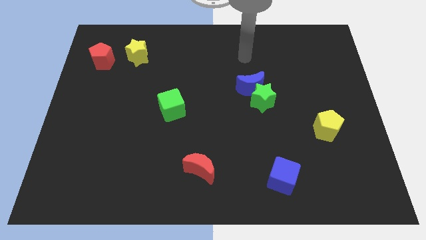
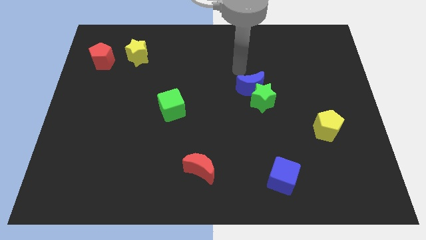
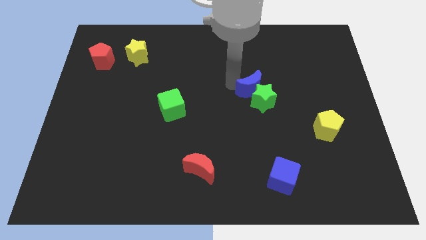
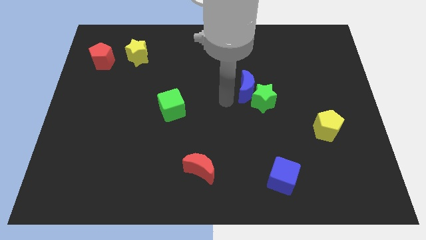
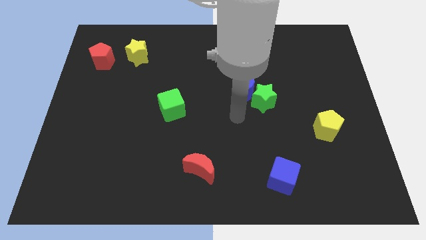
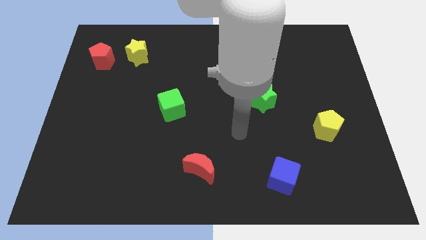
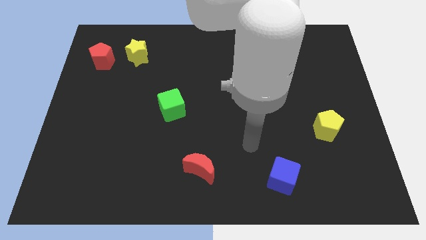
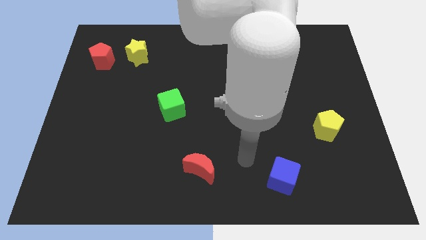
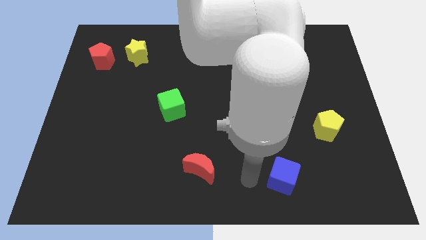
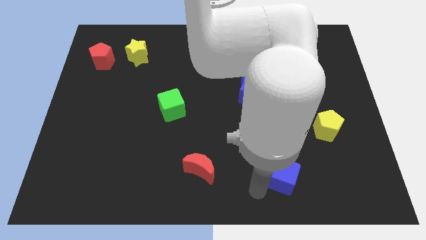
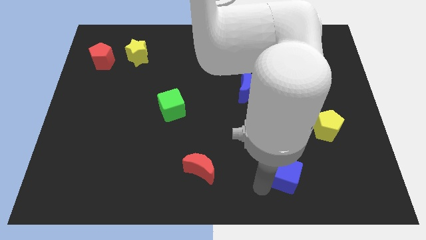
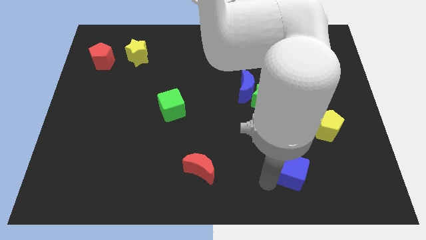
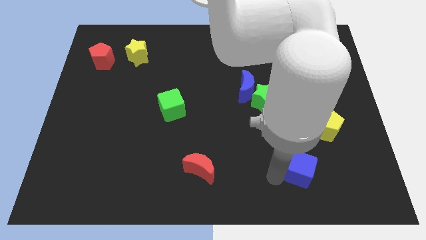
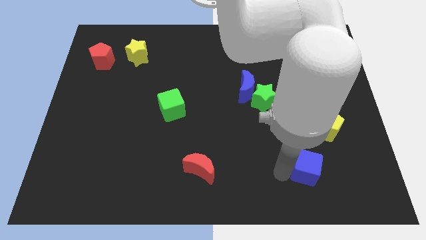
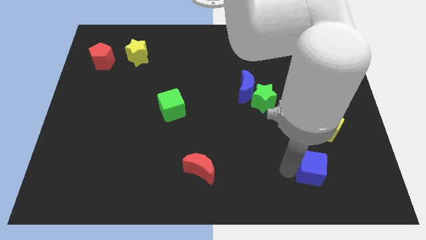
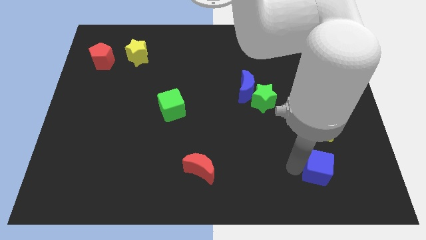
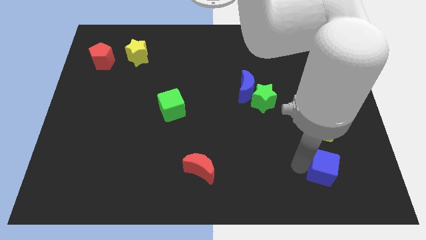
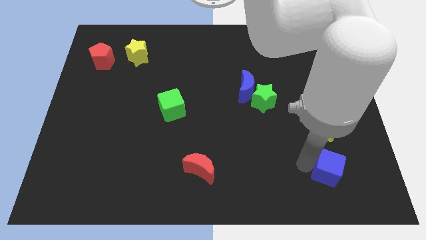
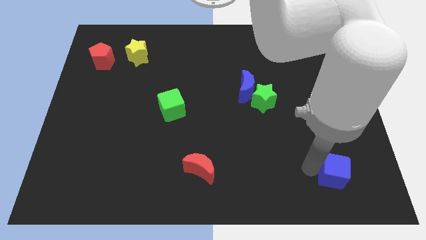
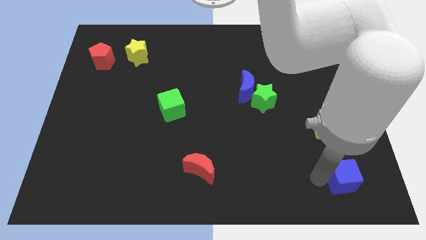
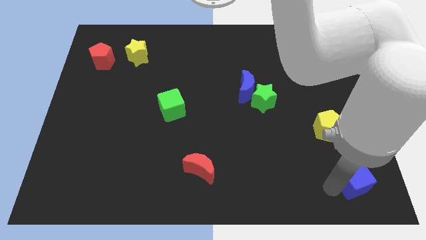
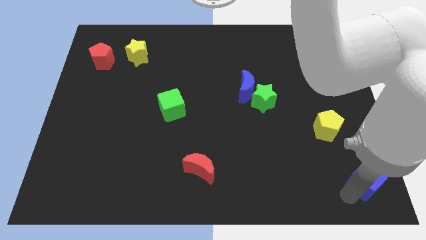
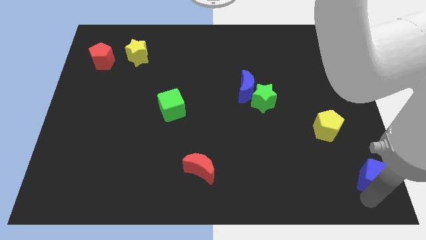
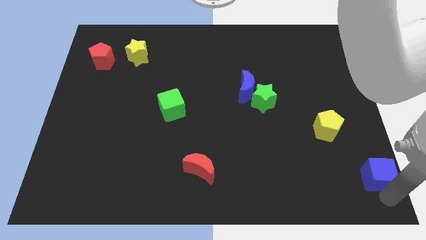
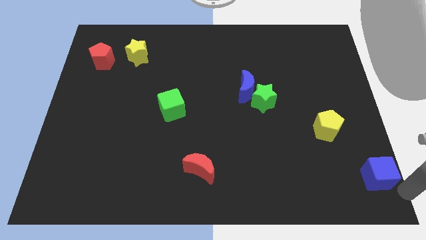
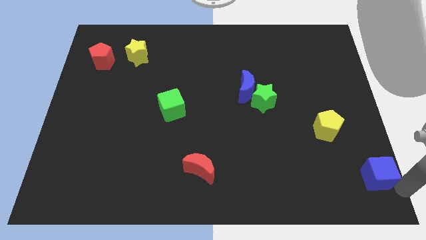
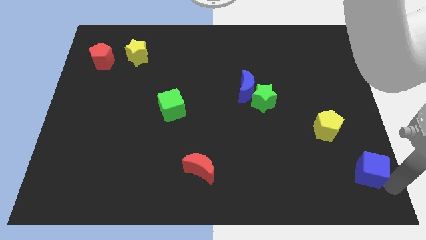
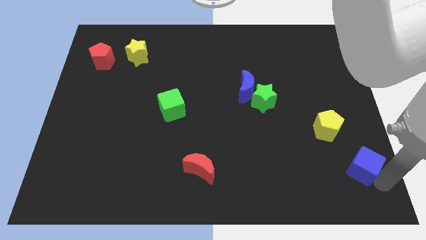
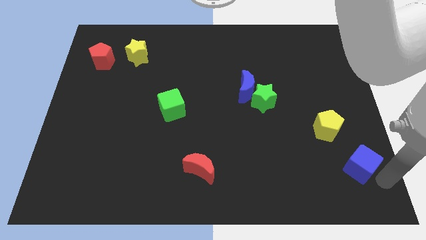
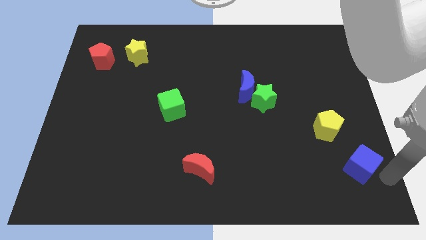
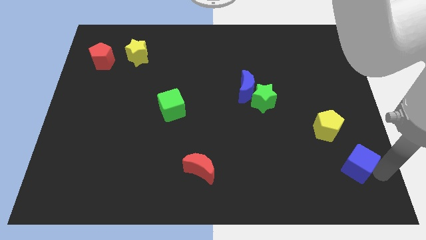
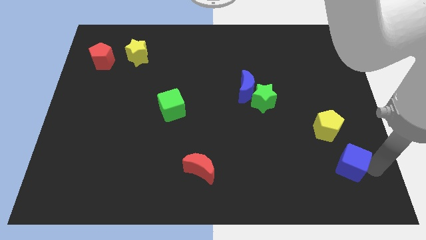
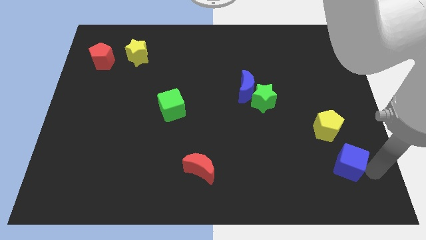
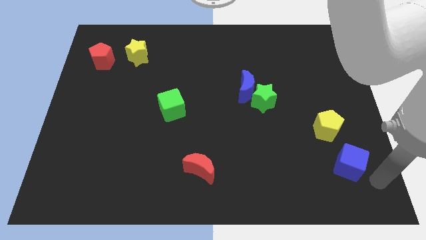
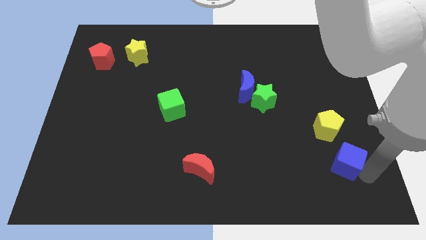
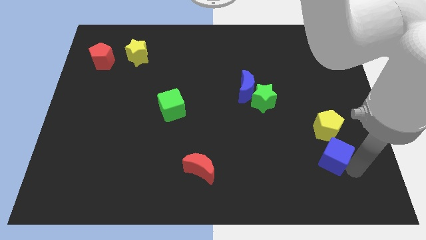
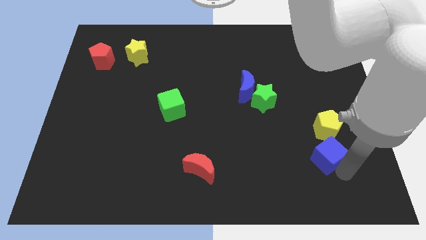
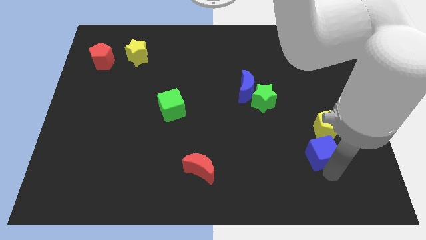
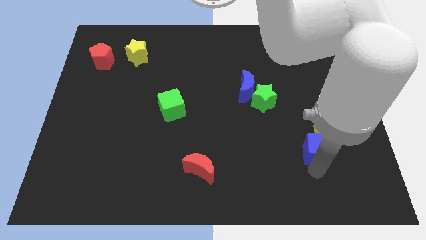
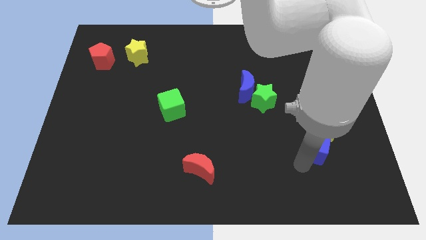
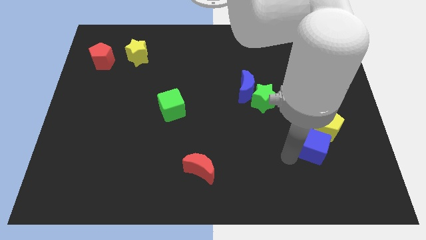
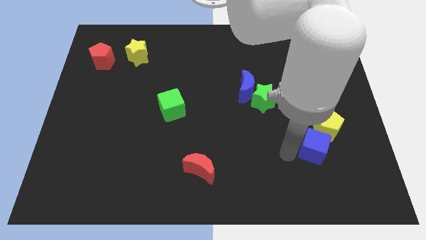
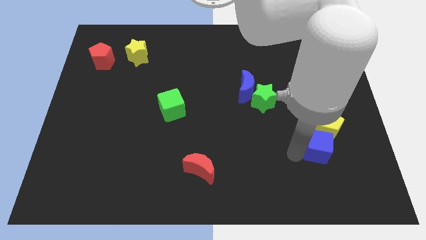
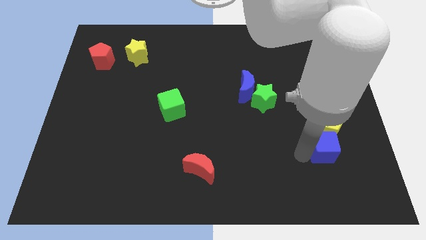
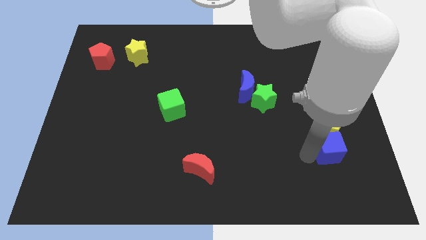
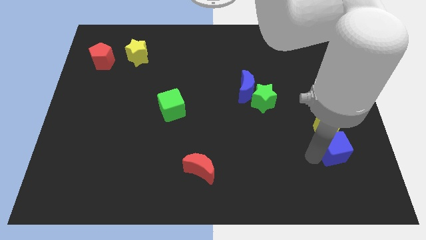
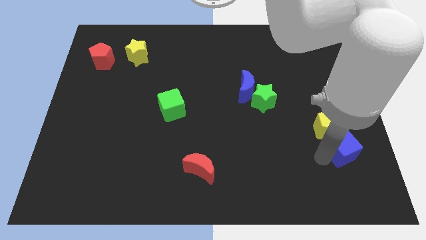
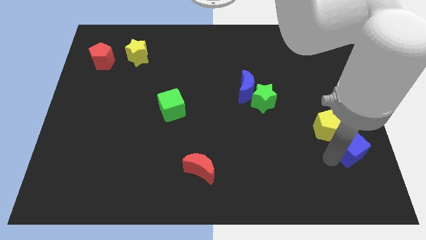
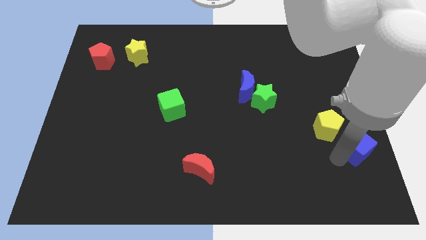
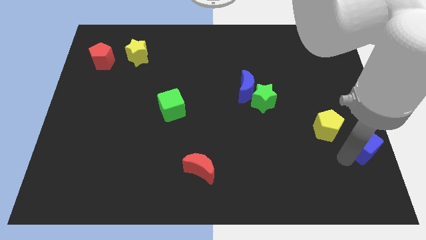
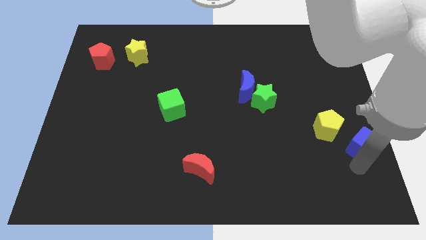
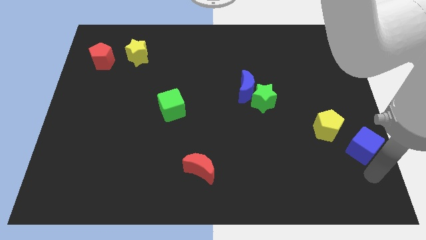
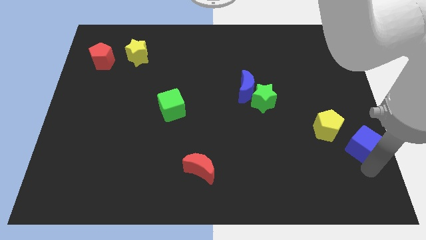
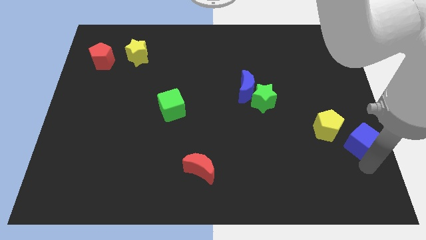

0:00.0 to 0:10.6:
put the blue cube to the right side of the board

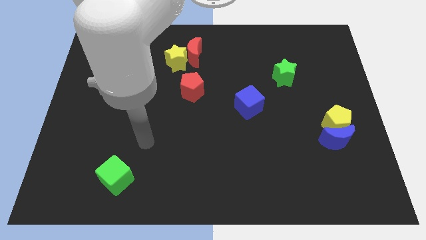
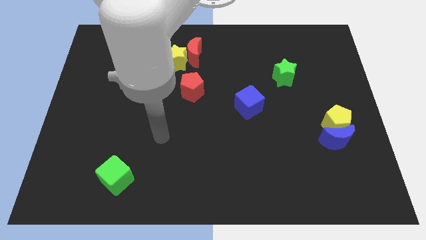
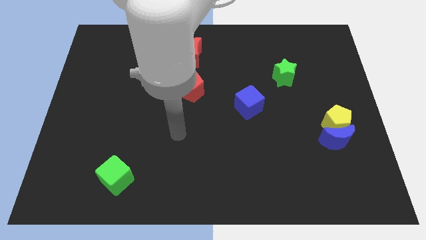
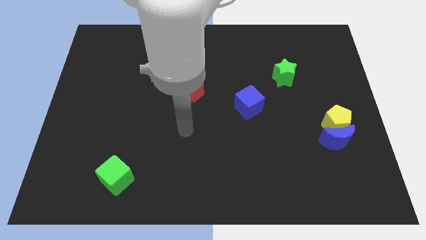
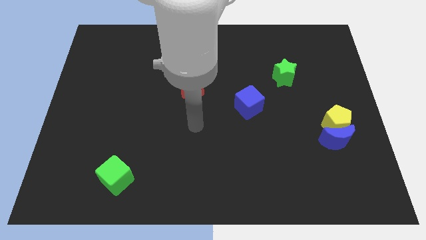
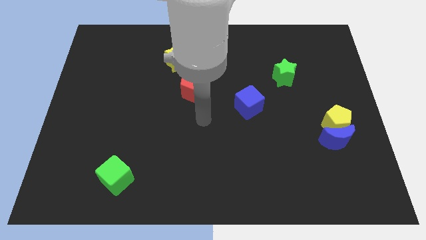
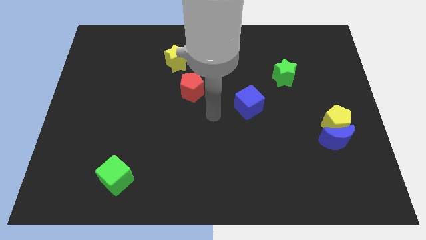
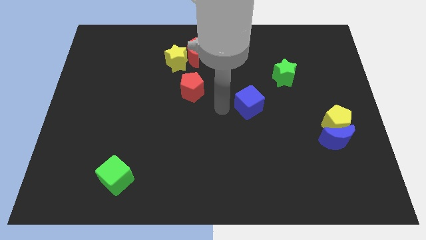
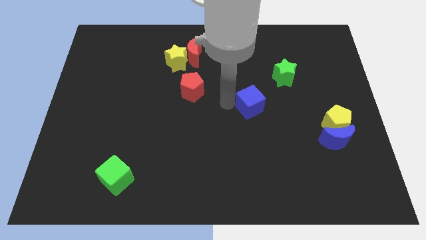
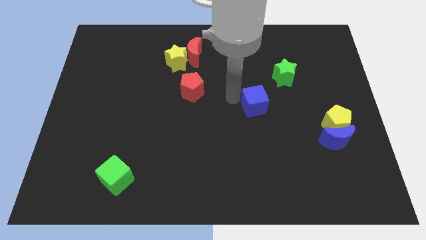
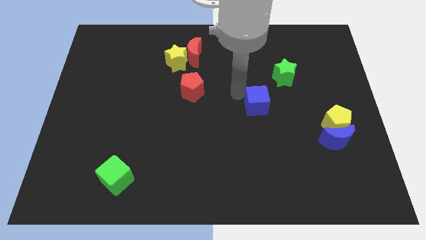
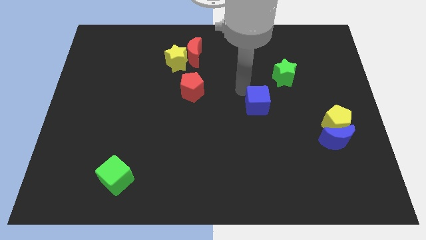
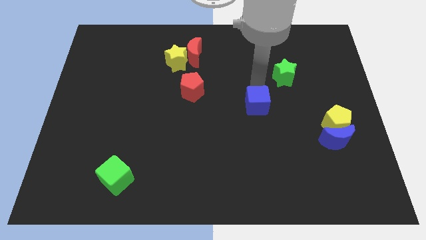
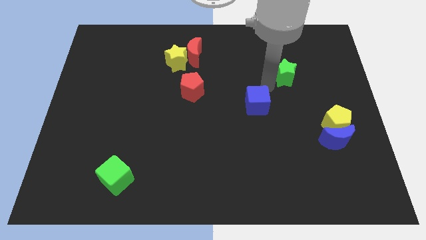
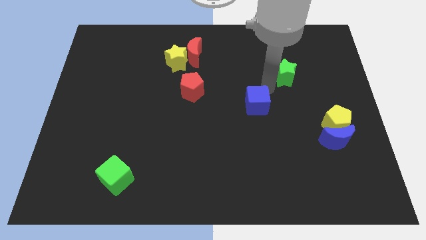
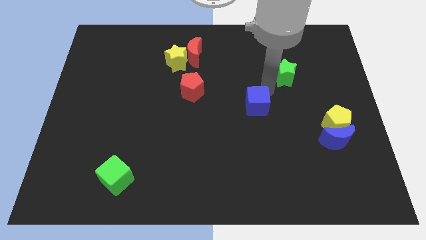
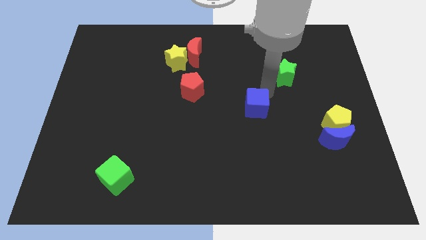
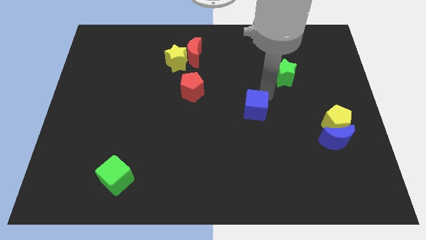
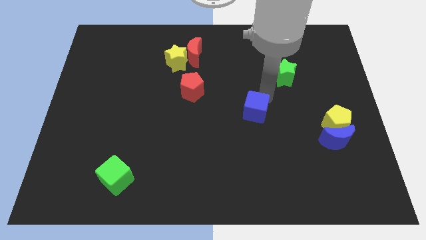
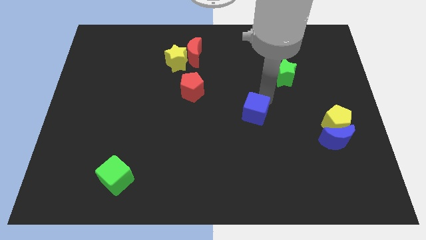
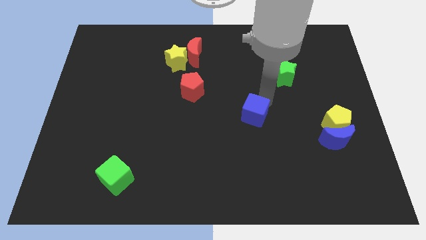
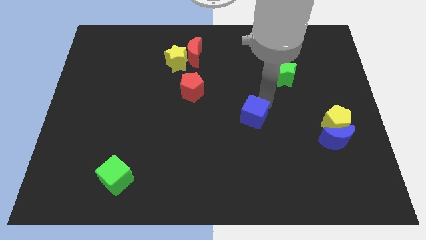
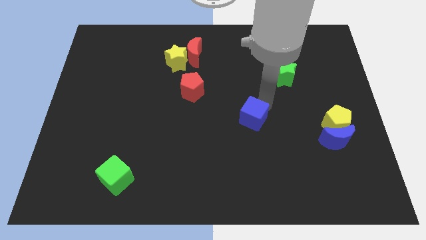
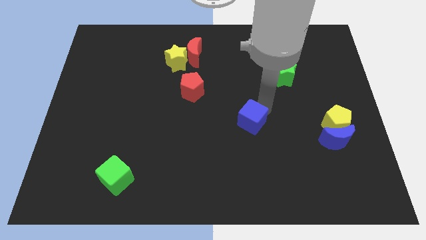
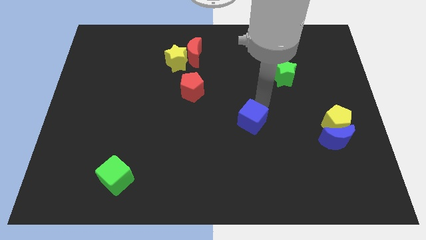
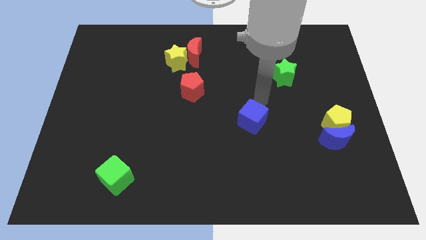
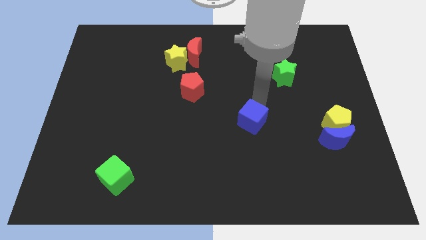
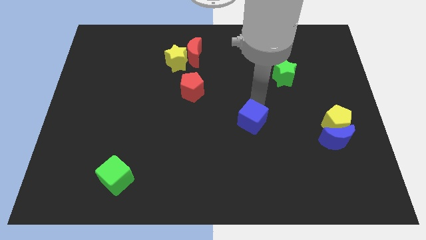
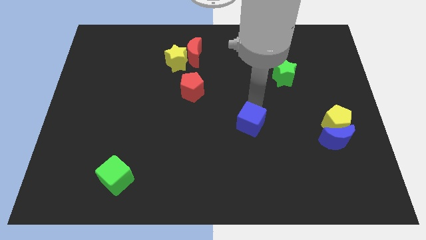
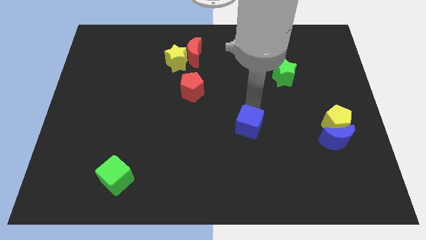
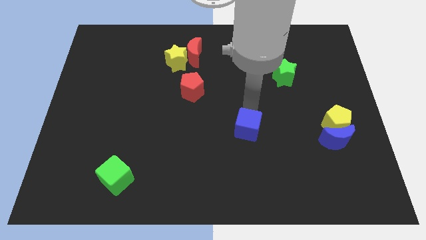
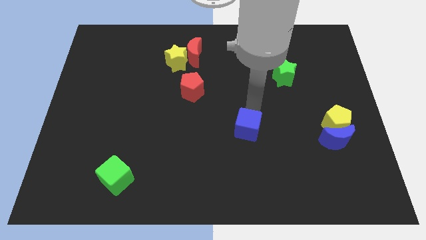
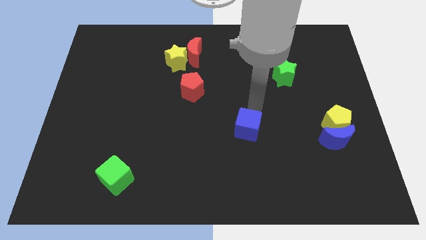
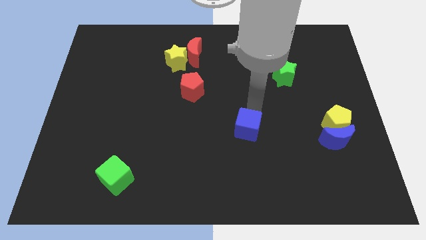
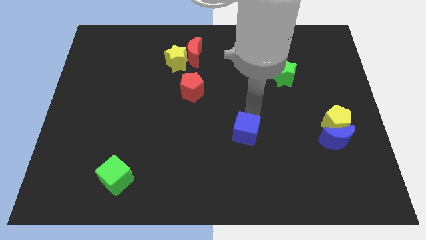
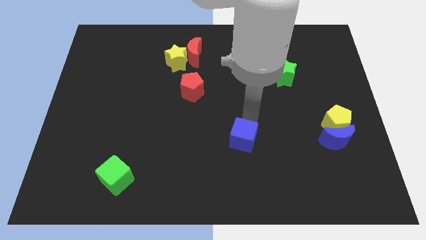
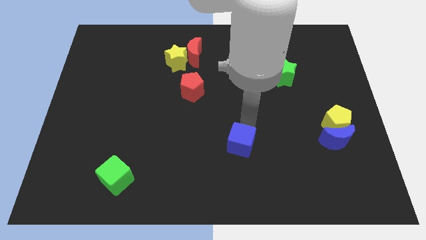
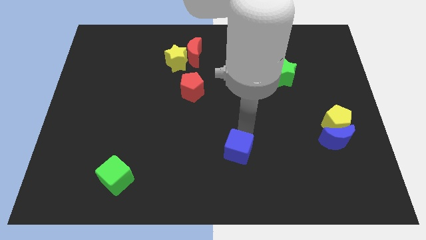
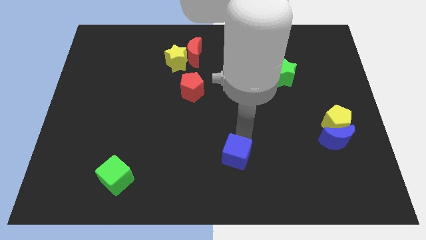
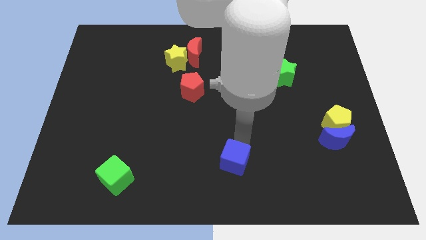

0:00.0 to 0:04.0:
push the blue cube to the bottom
